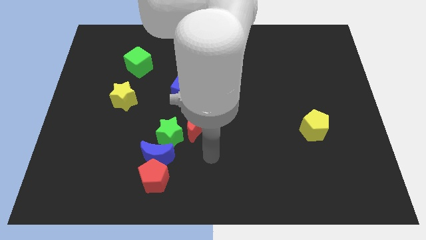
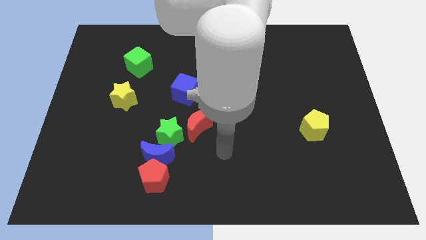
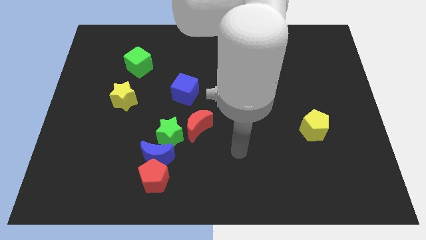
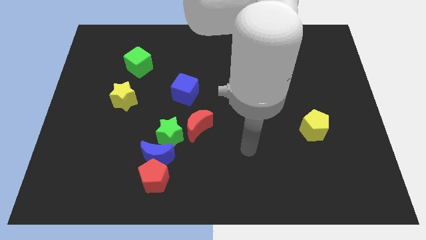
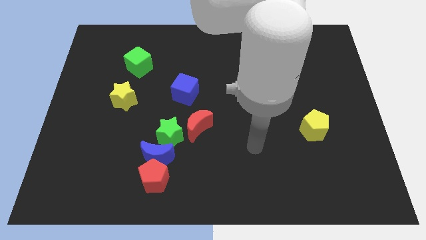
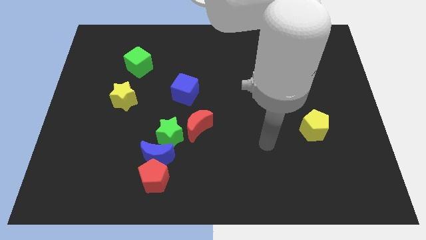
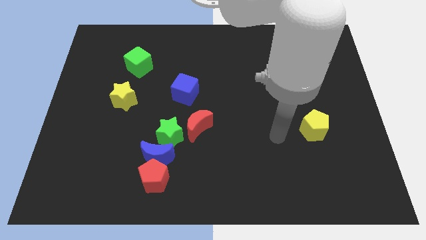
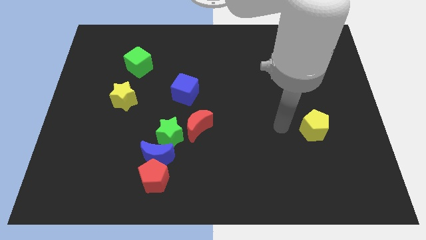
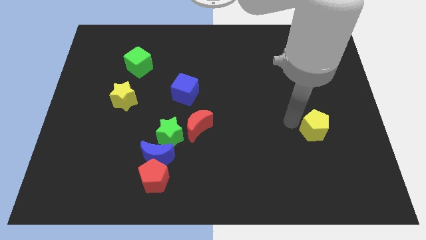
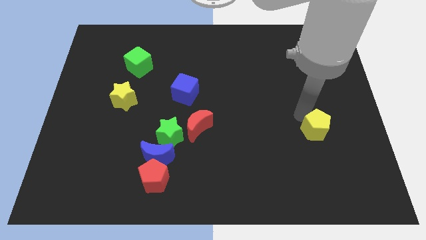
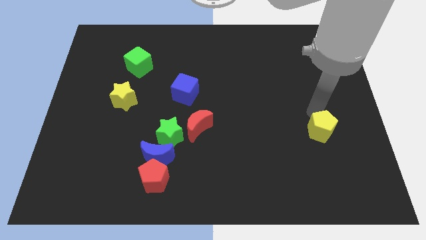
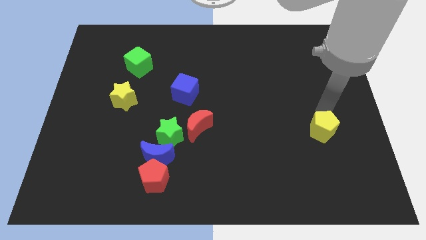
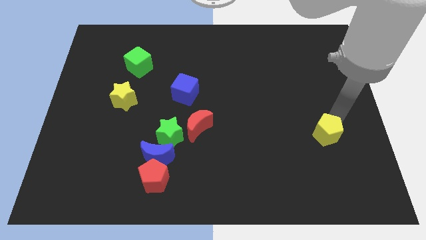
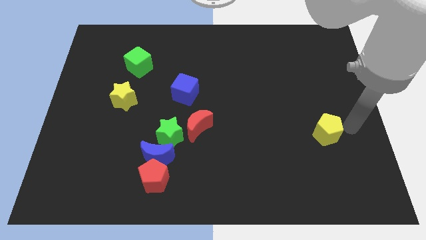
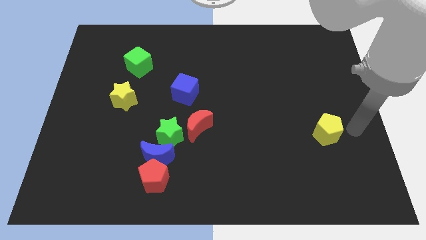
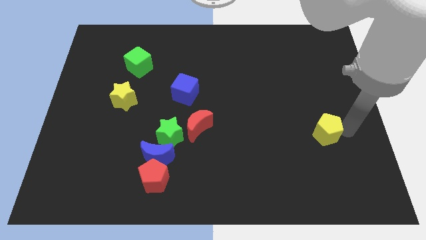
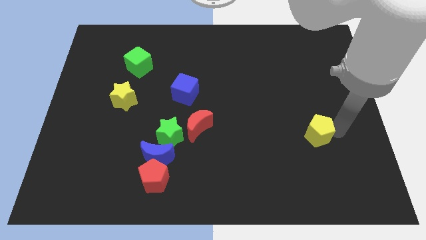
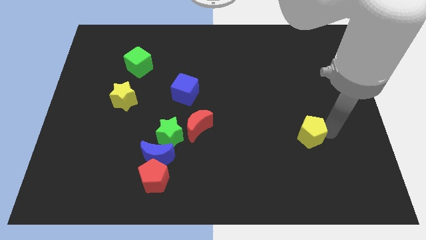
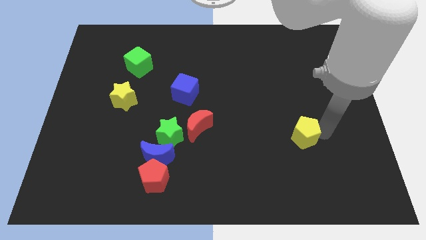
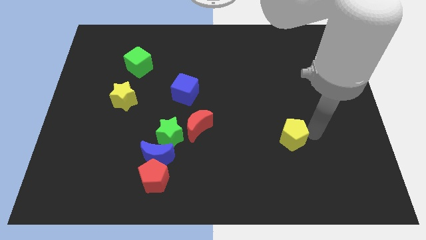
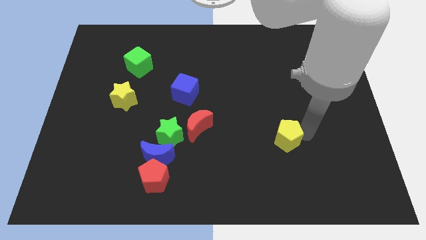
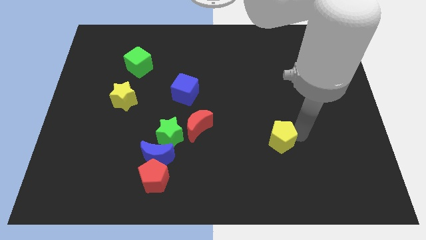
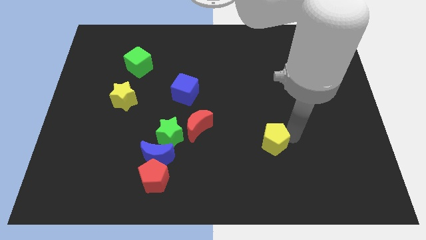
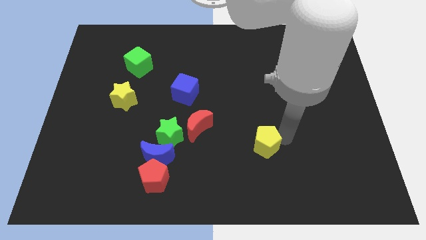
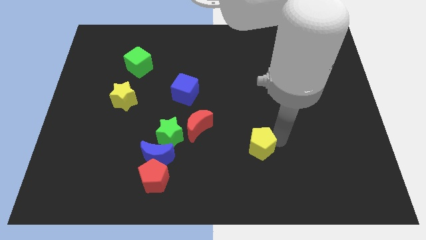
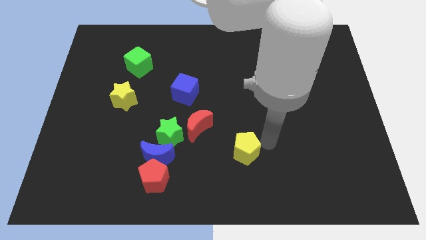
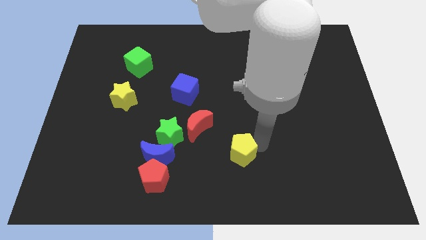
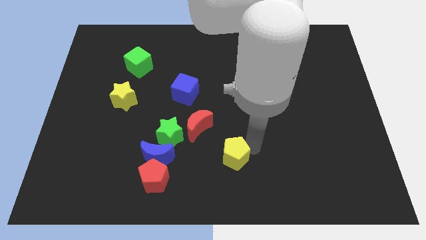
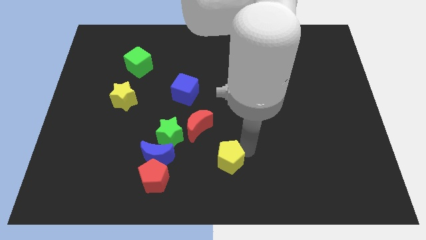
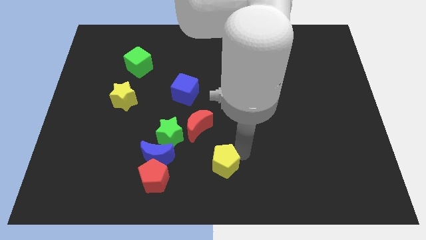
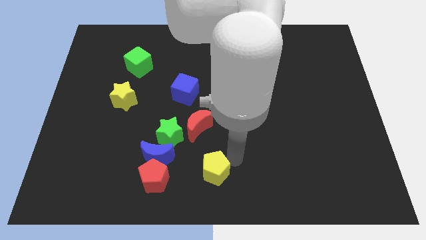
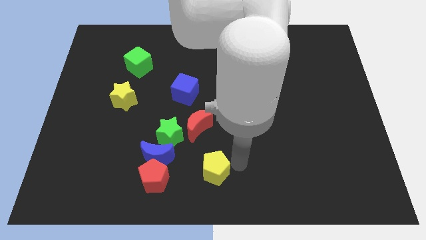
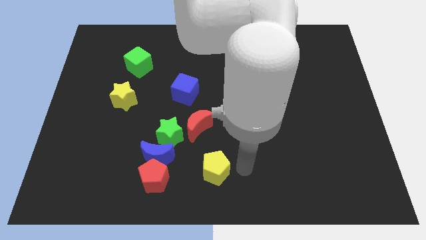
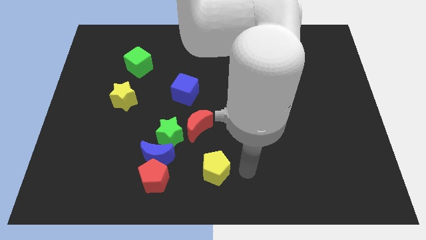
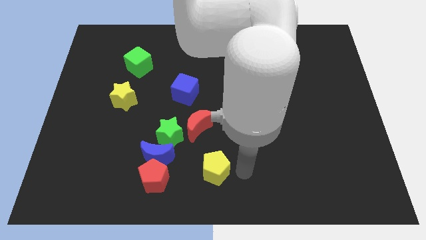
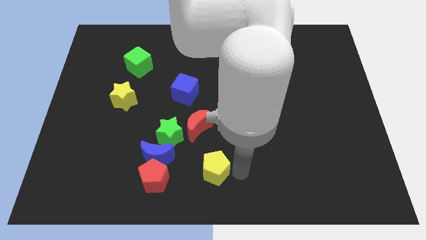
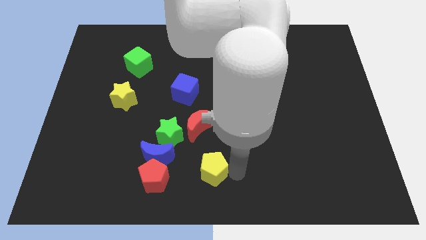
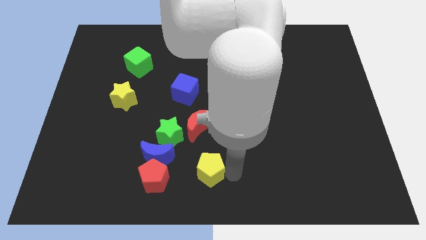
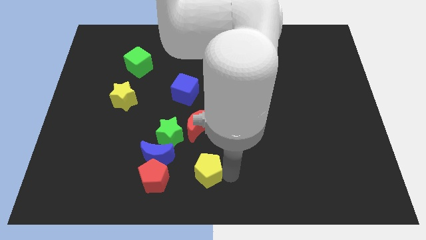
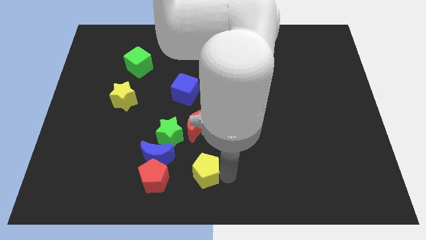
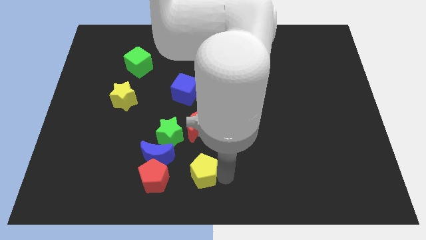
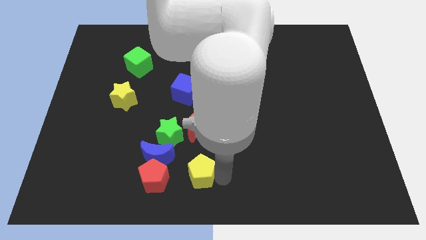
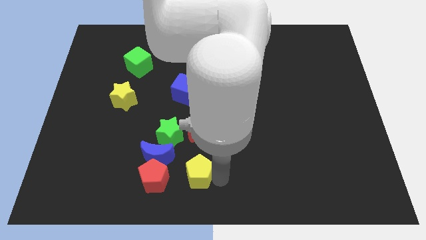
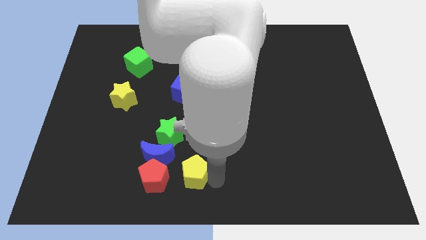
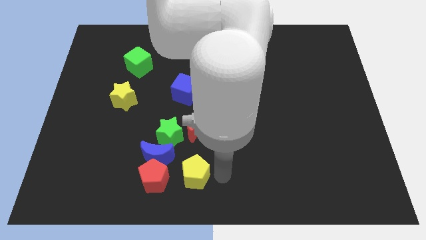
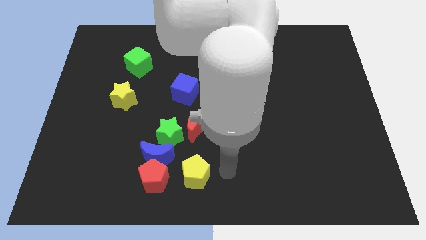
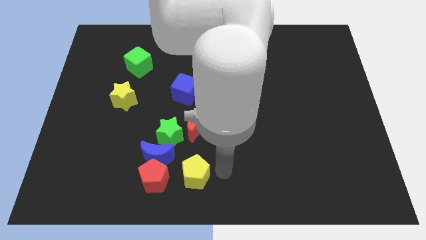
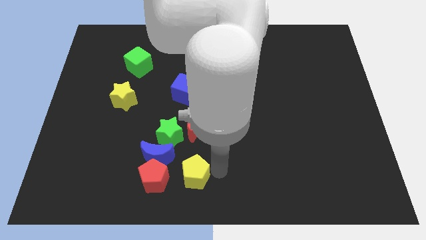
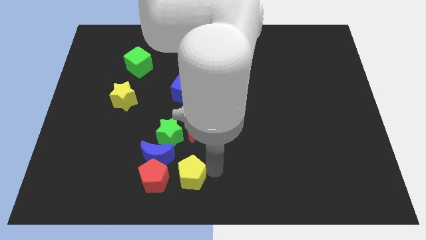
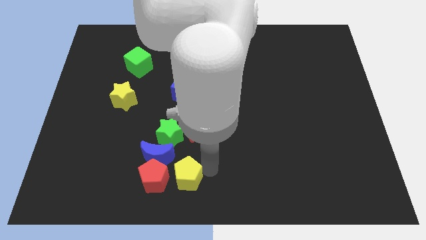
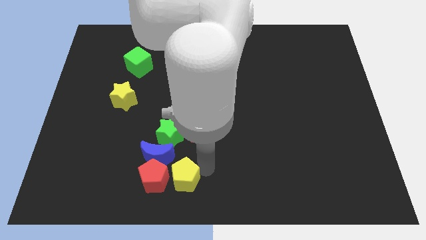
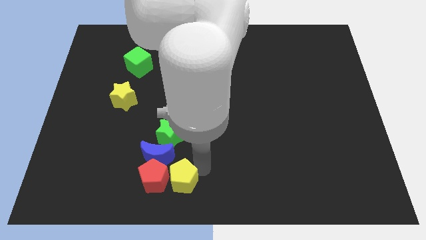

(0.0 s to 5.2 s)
push the yellow pentagon to the red pentagon

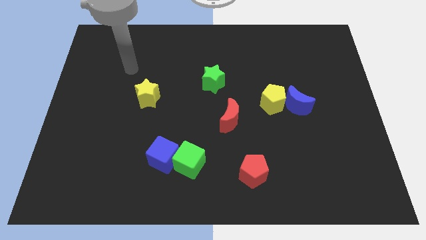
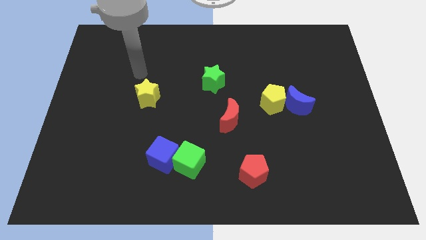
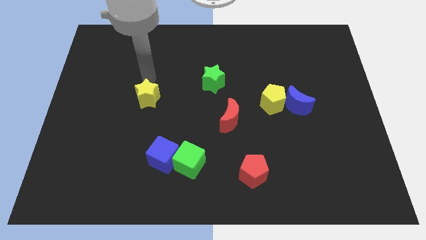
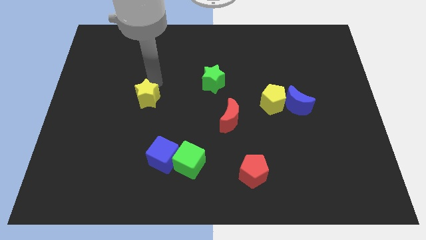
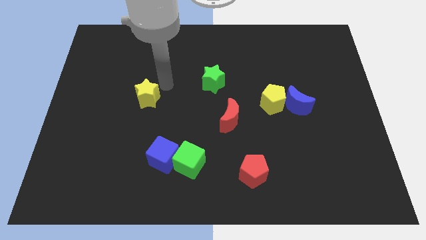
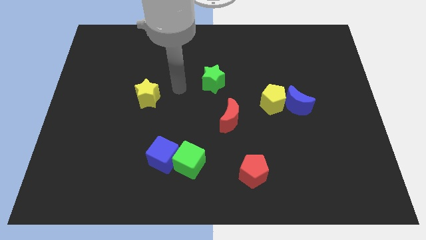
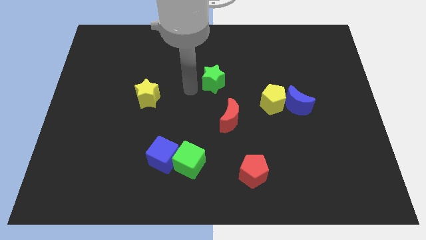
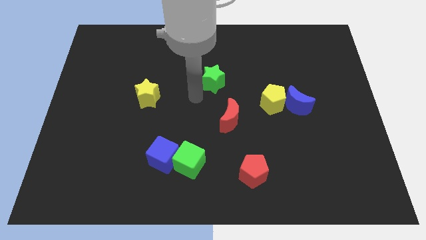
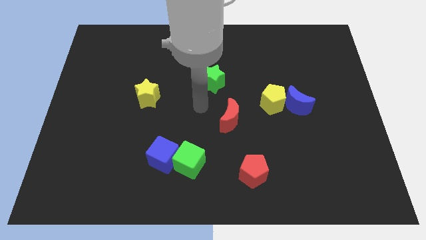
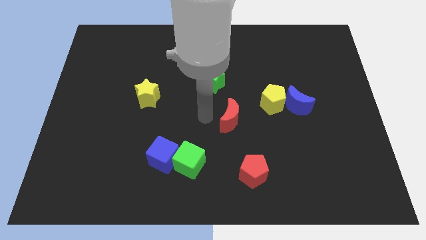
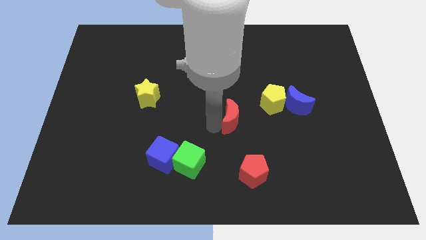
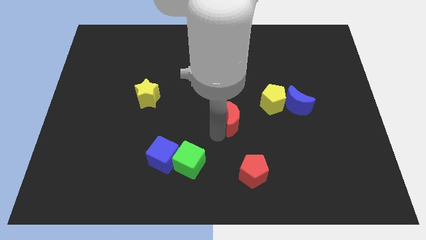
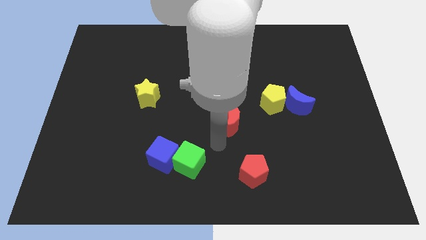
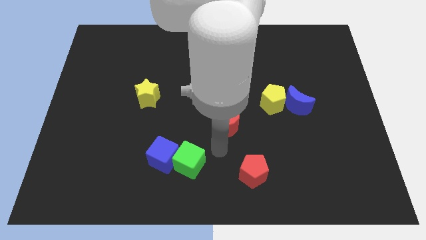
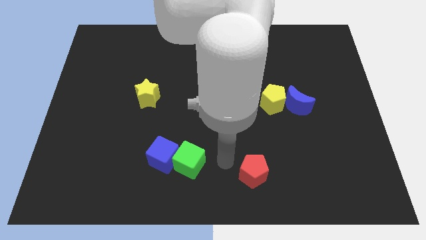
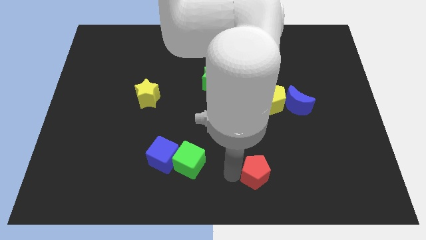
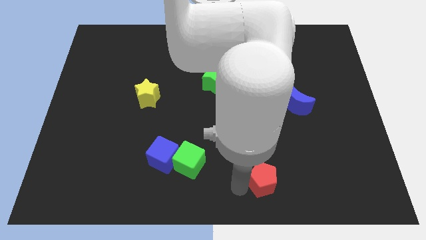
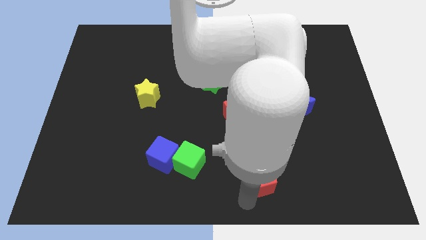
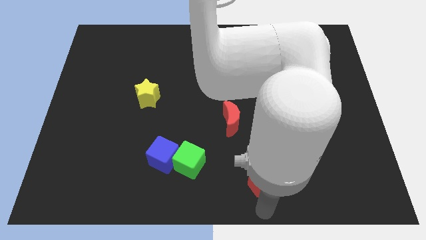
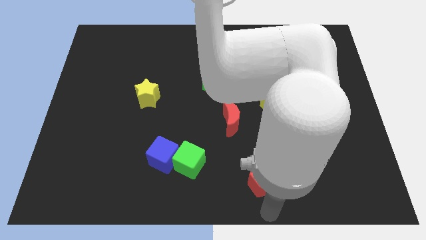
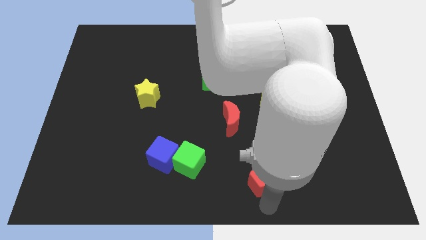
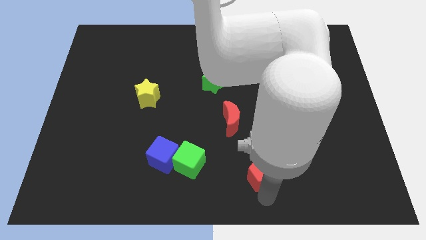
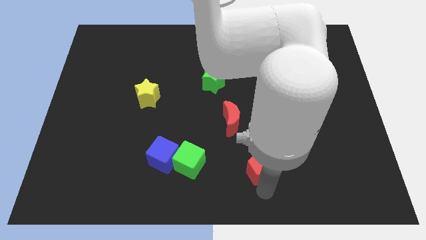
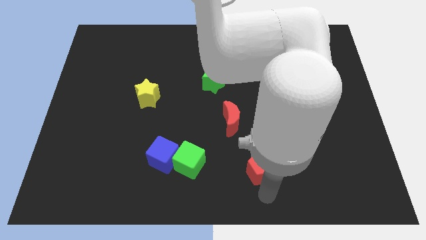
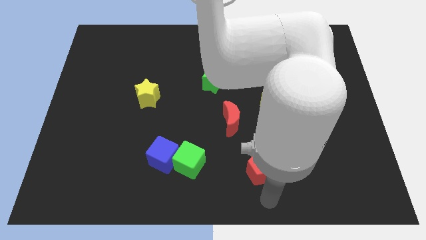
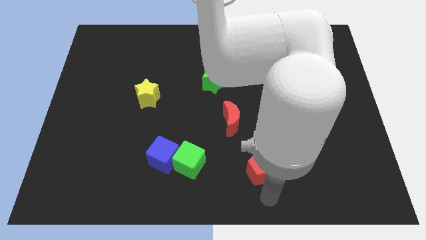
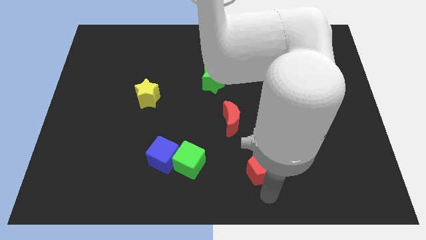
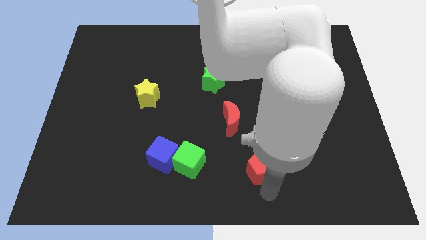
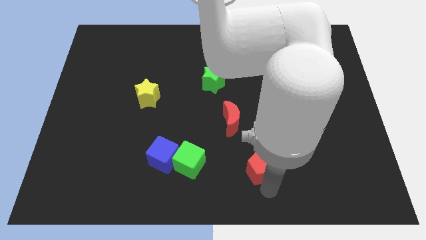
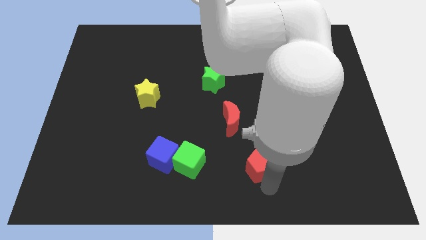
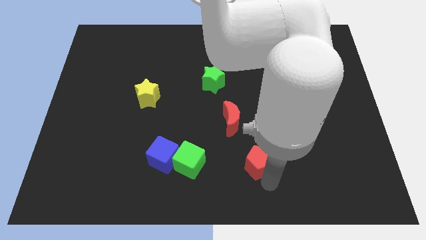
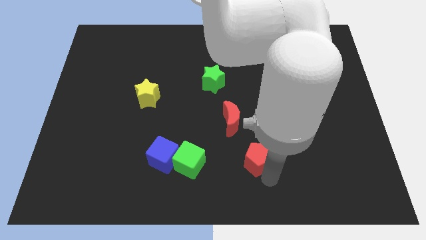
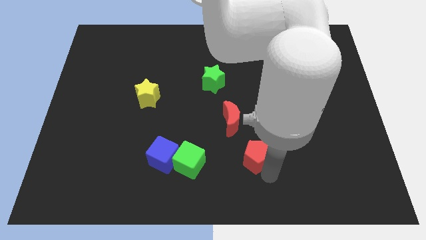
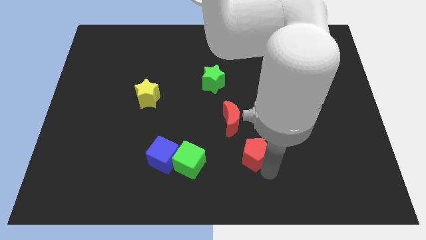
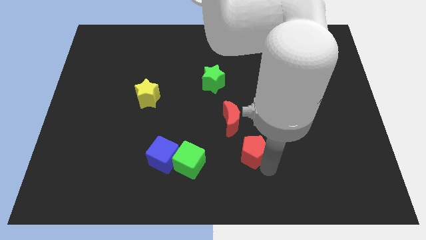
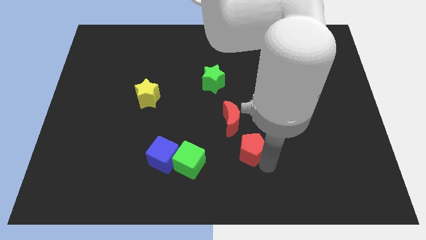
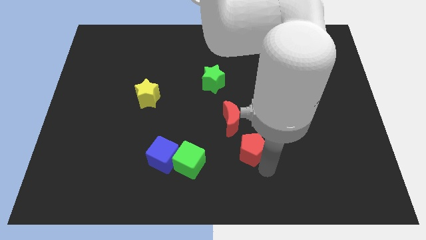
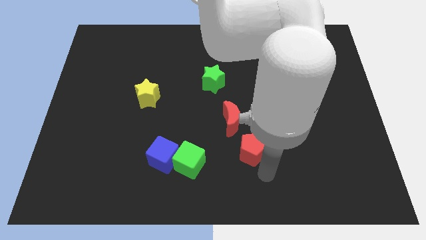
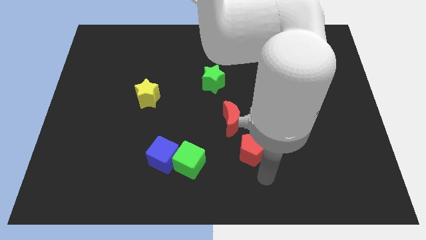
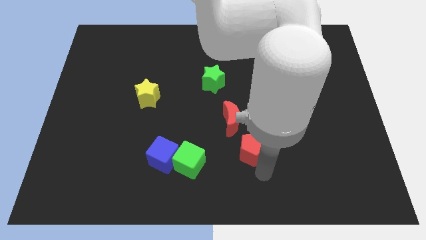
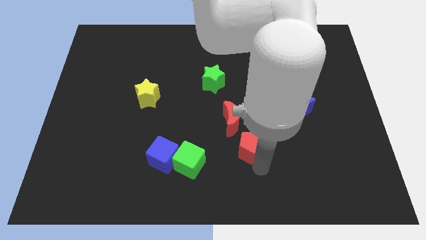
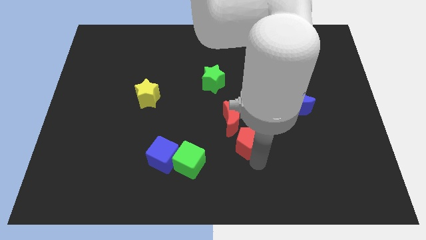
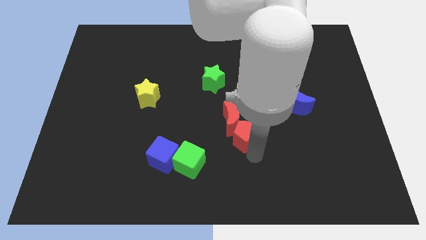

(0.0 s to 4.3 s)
push the red pentagon close to the red moon
